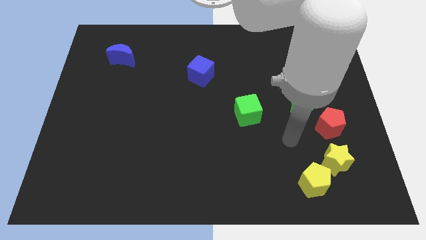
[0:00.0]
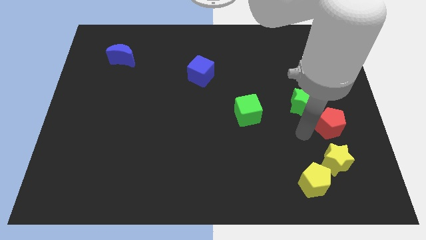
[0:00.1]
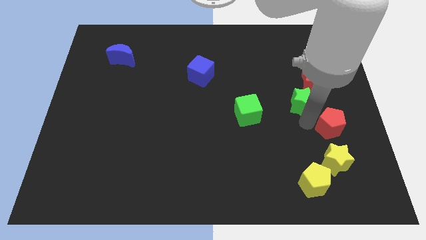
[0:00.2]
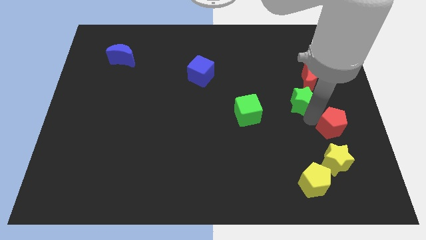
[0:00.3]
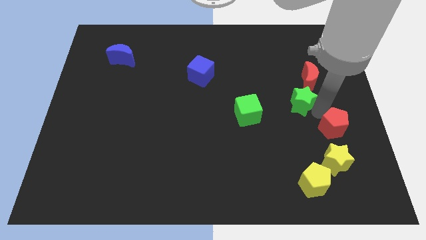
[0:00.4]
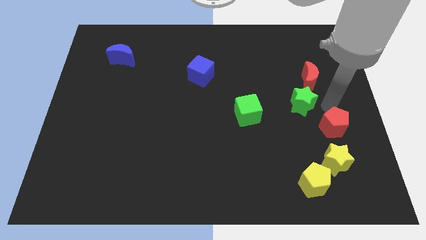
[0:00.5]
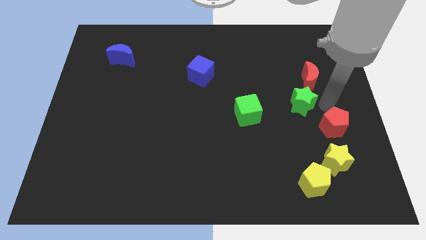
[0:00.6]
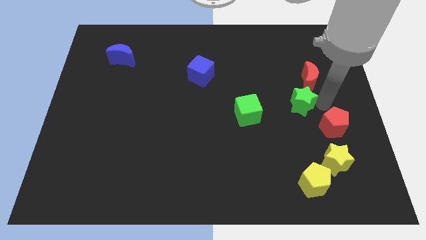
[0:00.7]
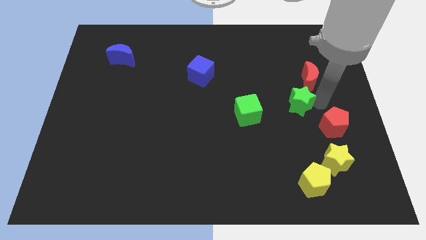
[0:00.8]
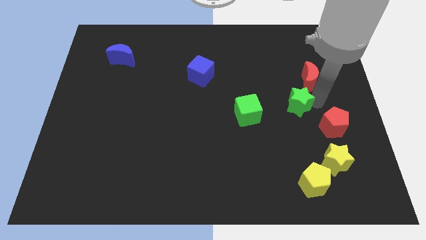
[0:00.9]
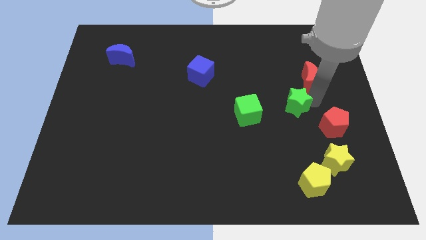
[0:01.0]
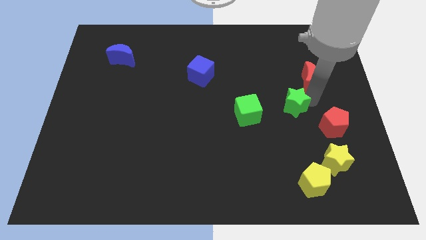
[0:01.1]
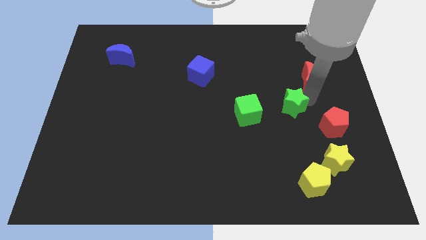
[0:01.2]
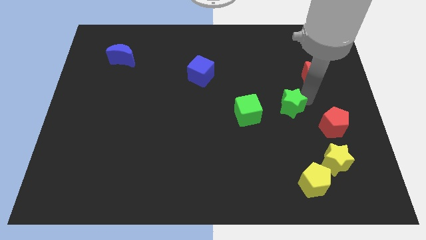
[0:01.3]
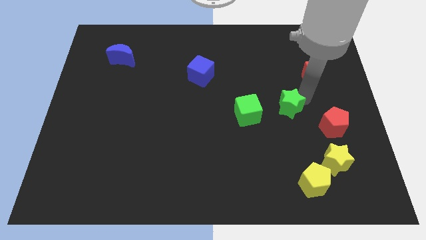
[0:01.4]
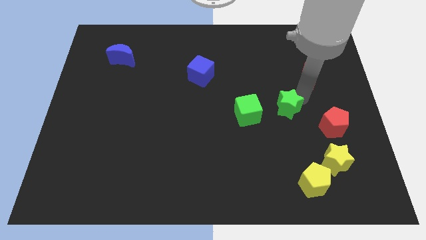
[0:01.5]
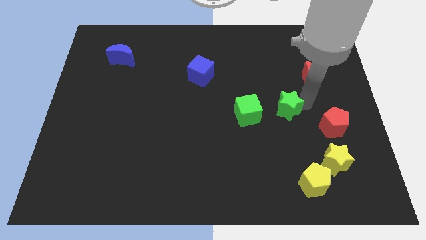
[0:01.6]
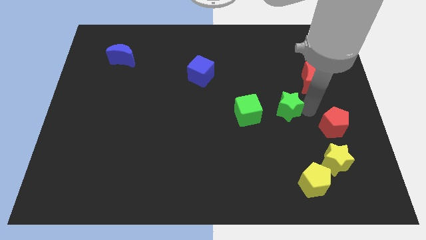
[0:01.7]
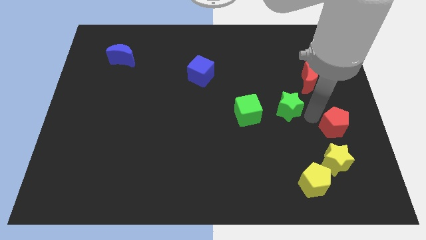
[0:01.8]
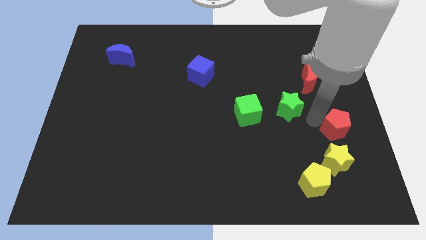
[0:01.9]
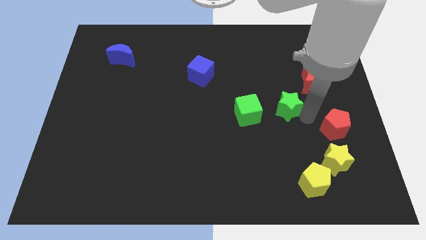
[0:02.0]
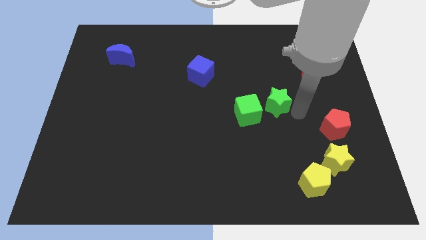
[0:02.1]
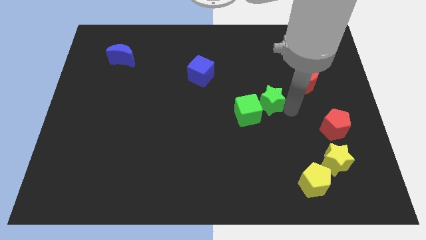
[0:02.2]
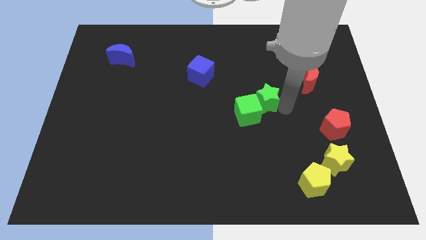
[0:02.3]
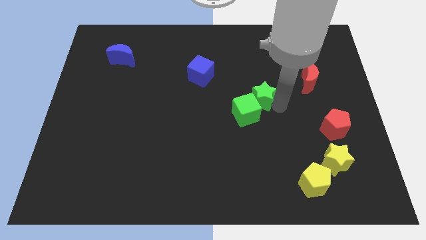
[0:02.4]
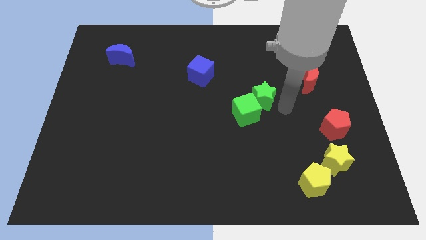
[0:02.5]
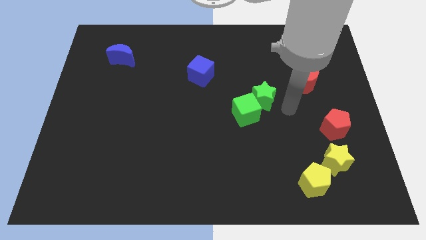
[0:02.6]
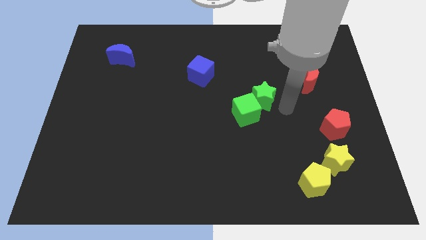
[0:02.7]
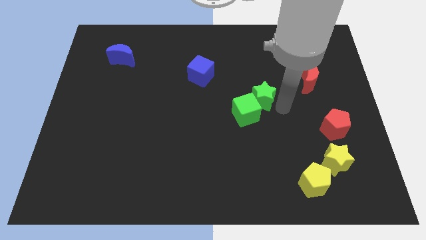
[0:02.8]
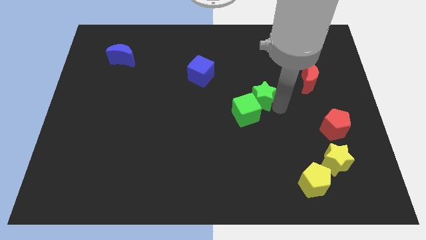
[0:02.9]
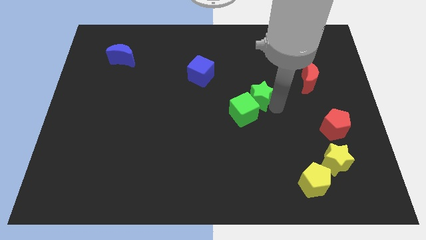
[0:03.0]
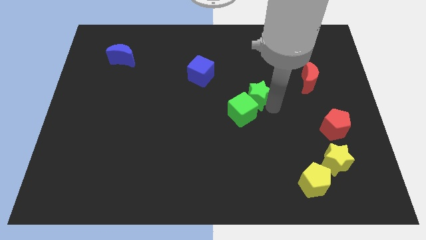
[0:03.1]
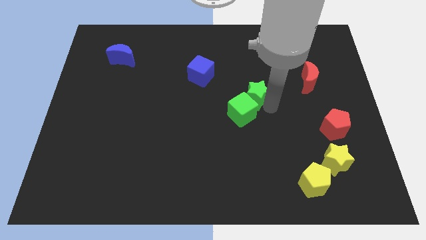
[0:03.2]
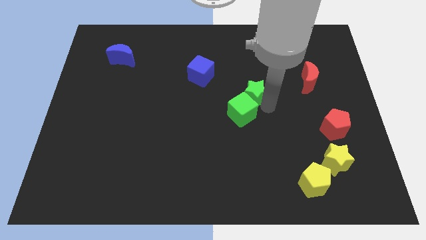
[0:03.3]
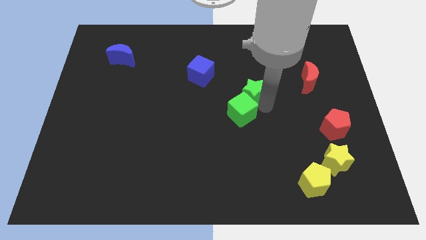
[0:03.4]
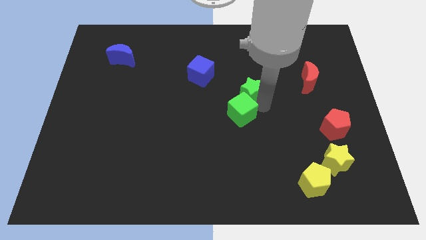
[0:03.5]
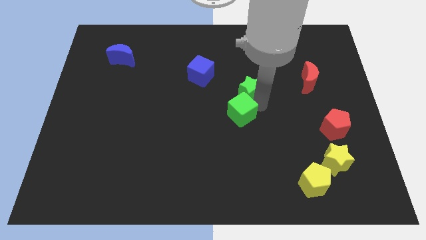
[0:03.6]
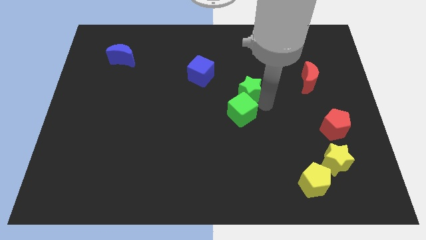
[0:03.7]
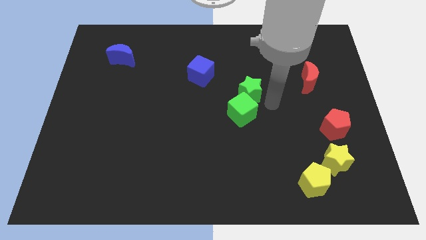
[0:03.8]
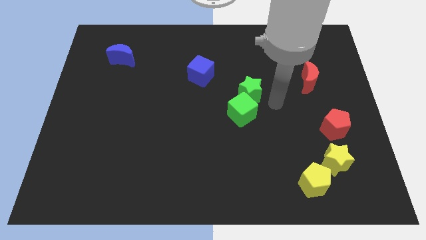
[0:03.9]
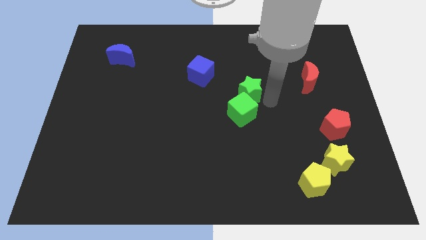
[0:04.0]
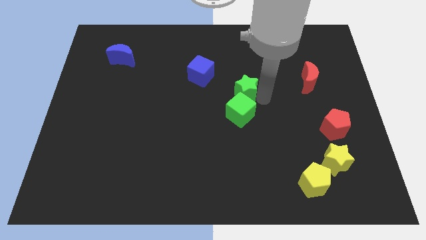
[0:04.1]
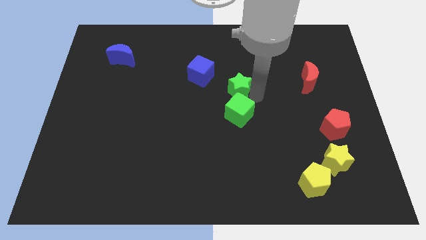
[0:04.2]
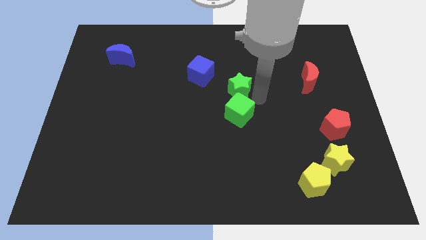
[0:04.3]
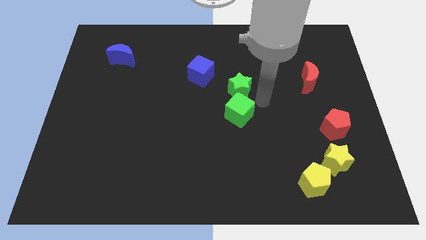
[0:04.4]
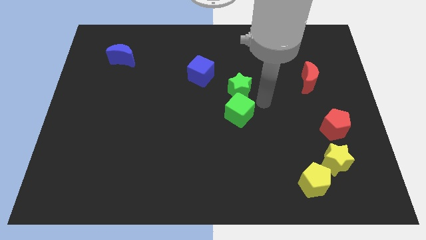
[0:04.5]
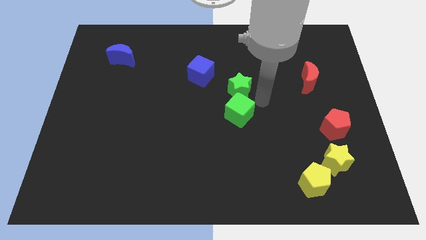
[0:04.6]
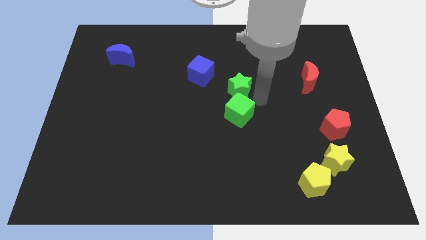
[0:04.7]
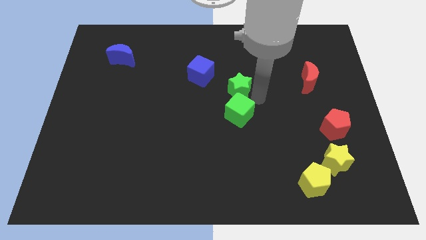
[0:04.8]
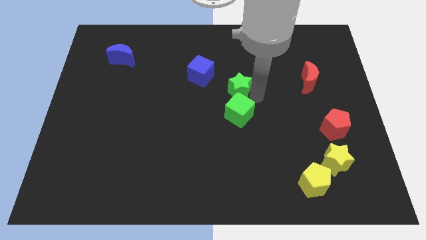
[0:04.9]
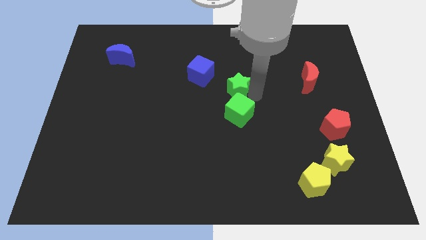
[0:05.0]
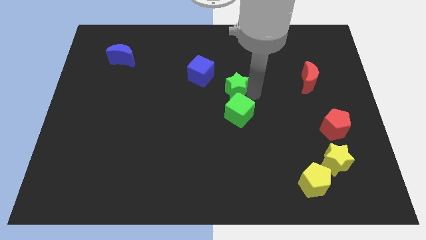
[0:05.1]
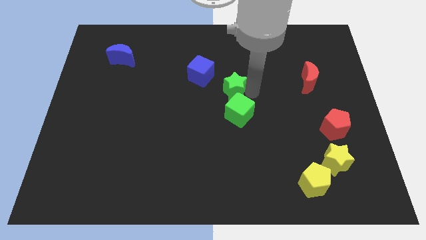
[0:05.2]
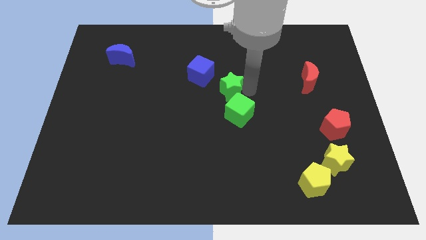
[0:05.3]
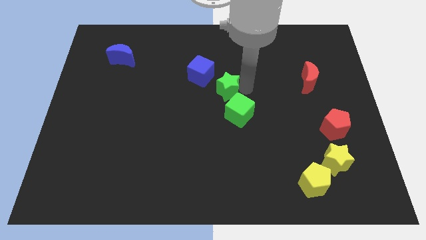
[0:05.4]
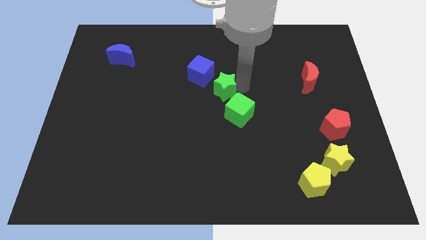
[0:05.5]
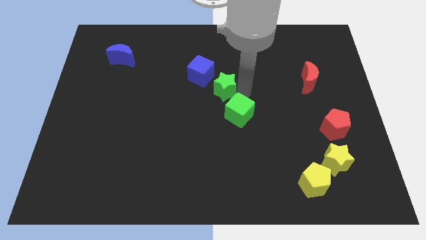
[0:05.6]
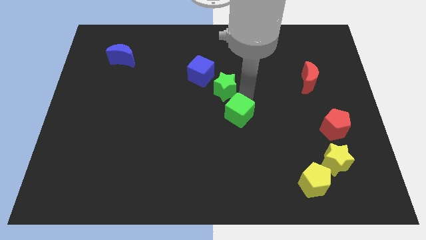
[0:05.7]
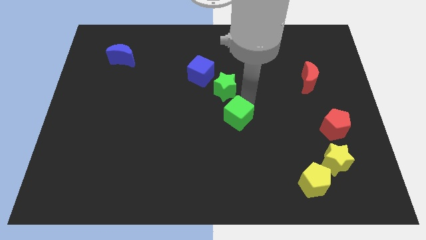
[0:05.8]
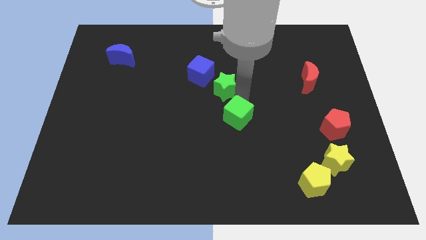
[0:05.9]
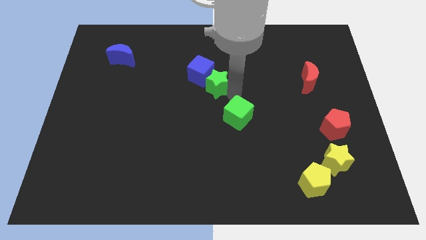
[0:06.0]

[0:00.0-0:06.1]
put the green star towards the blue cube

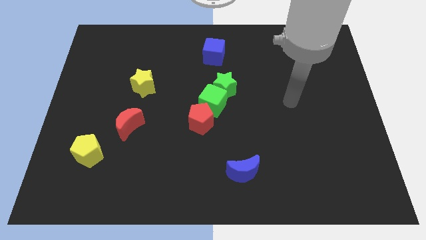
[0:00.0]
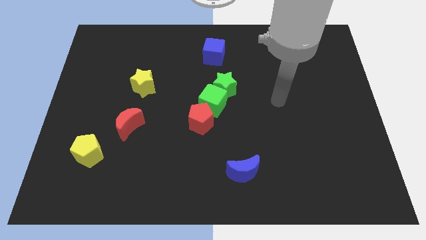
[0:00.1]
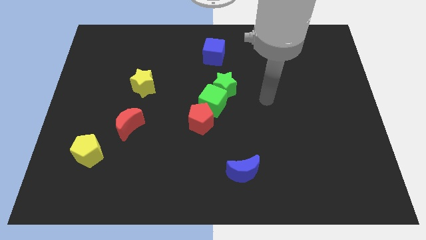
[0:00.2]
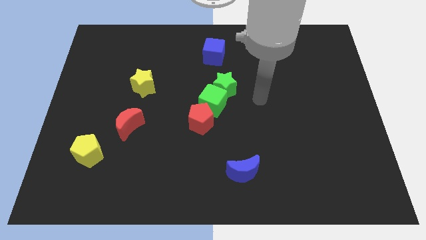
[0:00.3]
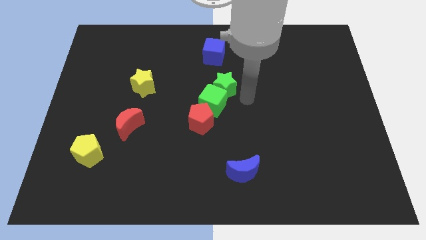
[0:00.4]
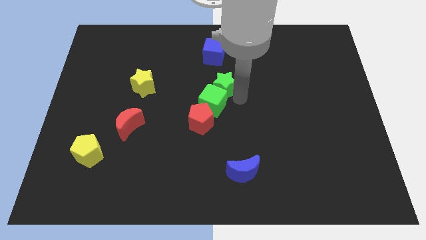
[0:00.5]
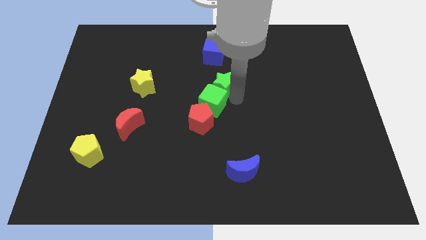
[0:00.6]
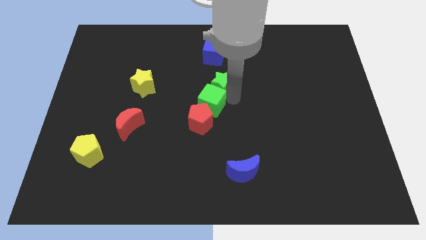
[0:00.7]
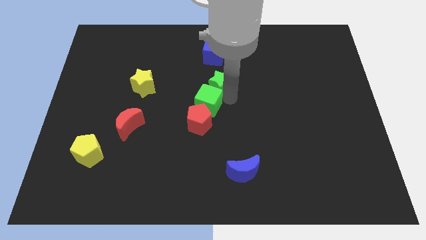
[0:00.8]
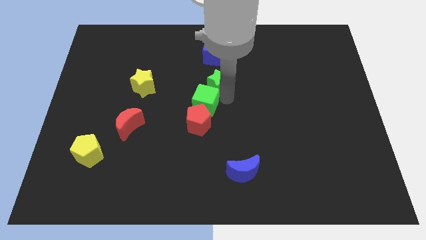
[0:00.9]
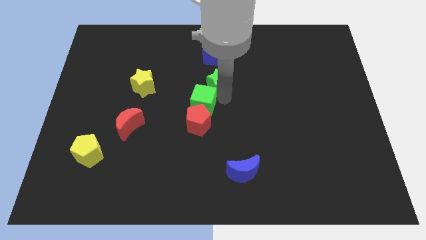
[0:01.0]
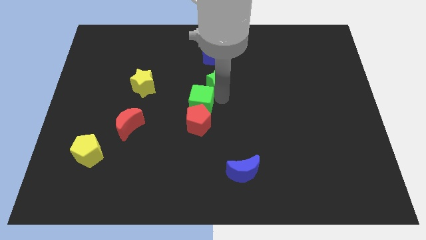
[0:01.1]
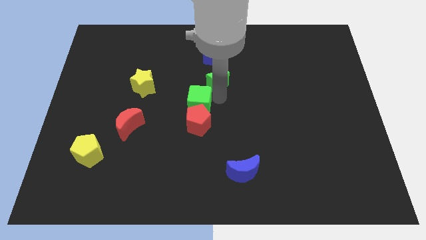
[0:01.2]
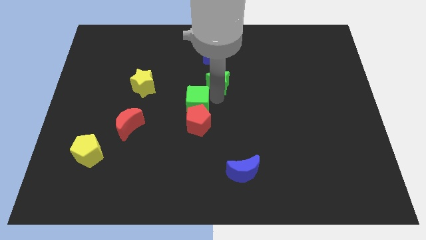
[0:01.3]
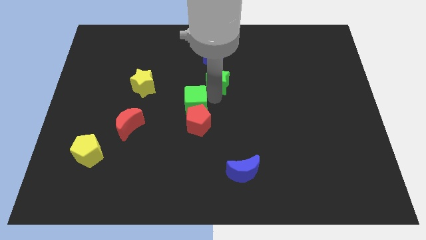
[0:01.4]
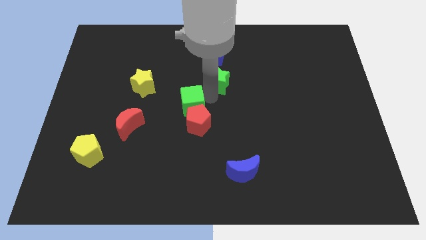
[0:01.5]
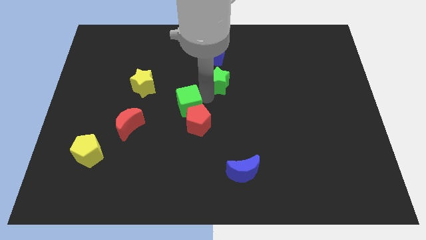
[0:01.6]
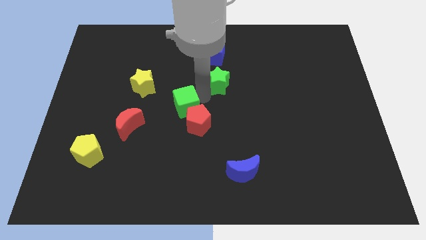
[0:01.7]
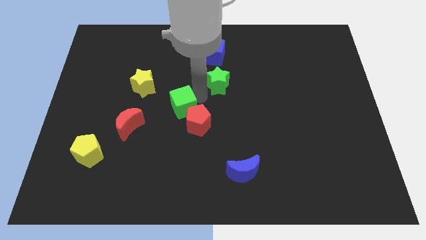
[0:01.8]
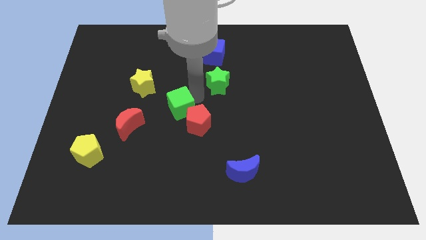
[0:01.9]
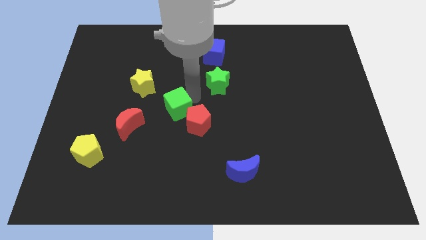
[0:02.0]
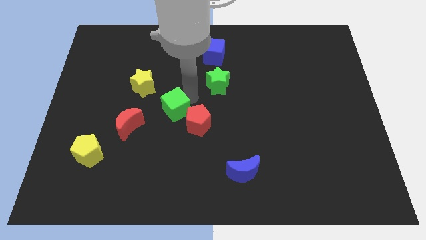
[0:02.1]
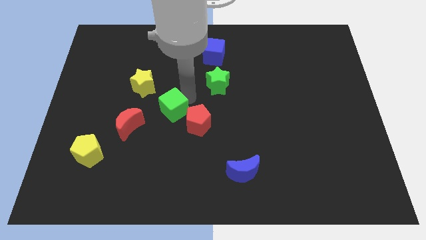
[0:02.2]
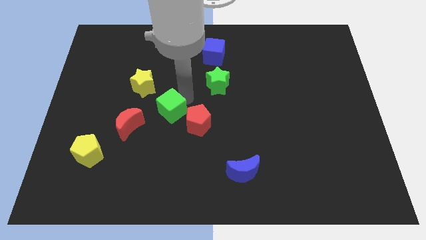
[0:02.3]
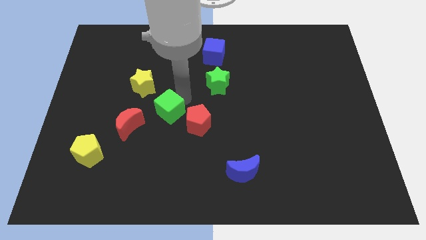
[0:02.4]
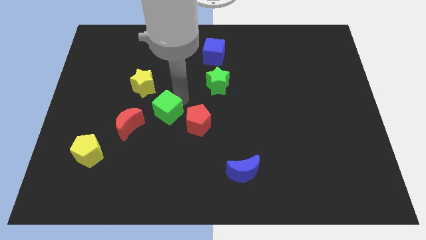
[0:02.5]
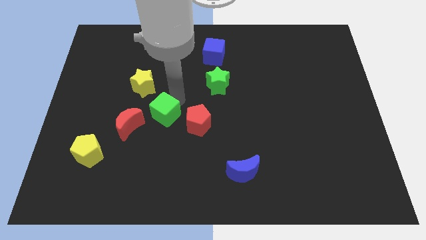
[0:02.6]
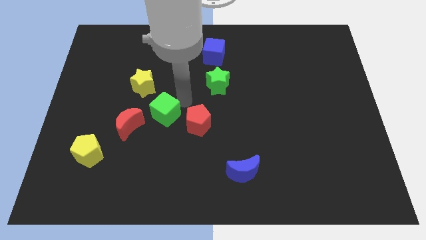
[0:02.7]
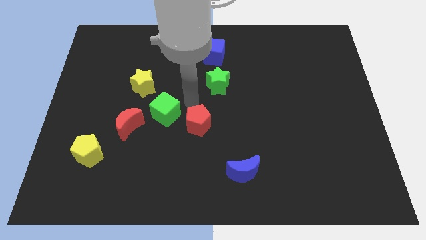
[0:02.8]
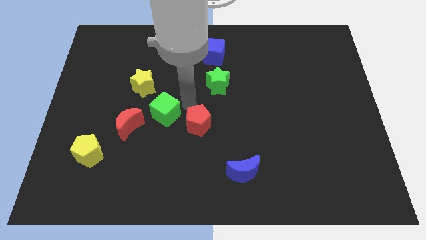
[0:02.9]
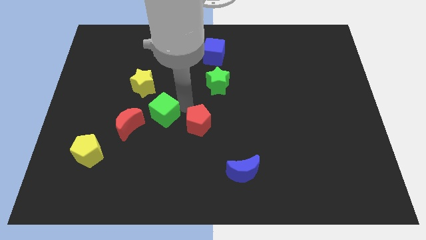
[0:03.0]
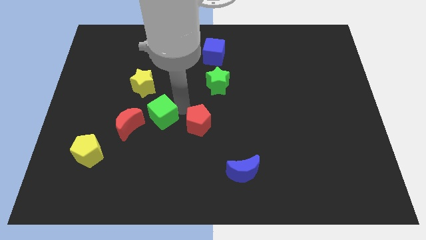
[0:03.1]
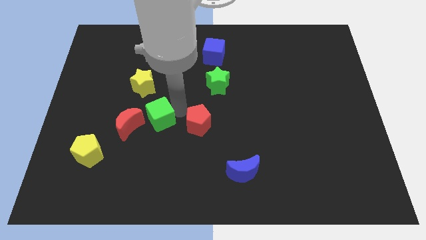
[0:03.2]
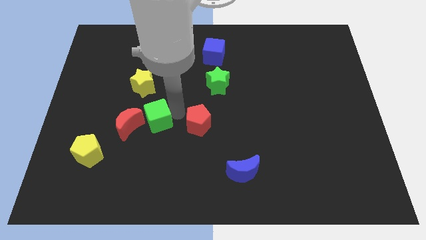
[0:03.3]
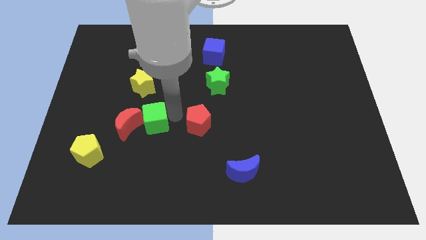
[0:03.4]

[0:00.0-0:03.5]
push the green cube close to the red moon
